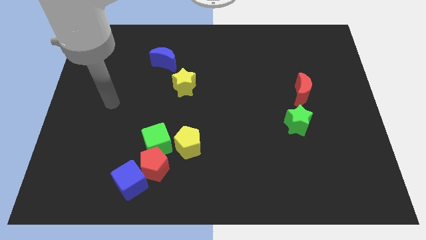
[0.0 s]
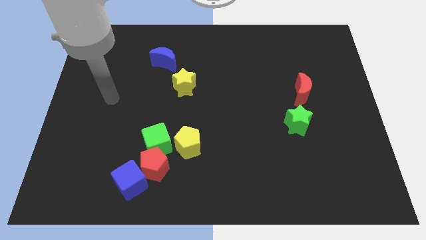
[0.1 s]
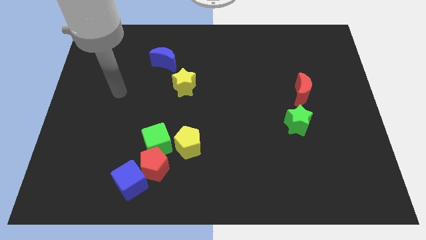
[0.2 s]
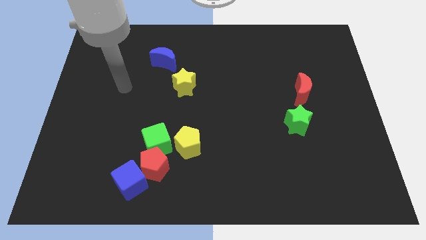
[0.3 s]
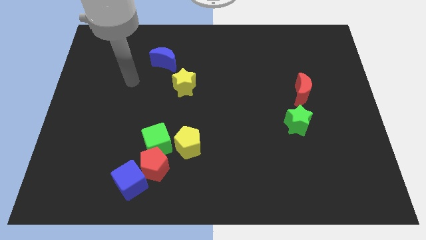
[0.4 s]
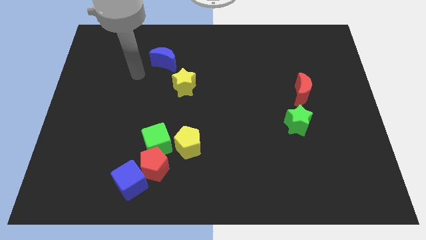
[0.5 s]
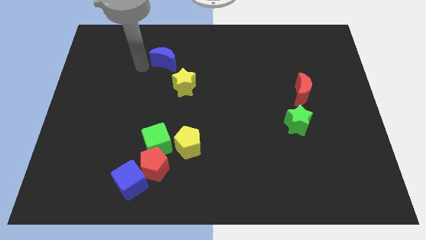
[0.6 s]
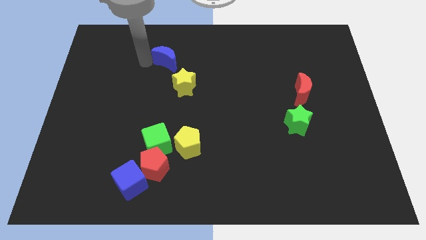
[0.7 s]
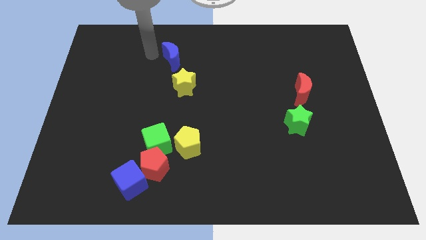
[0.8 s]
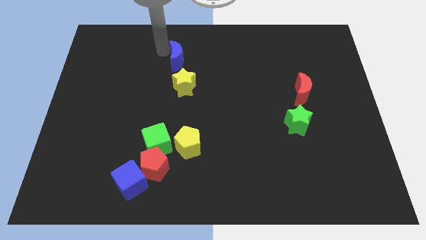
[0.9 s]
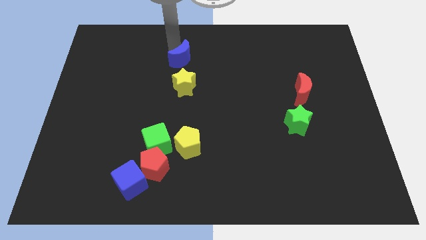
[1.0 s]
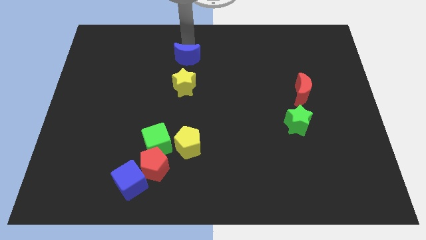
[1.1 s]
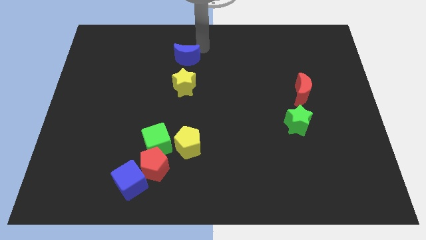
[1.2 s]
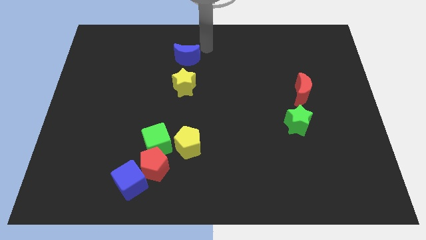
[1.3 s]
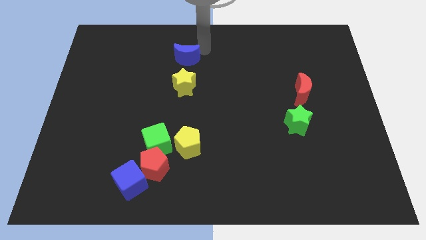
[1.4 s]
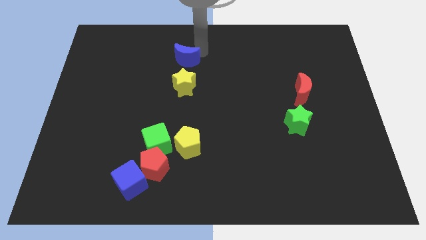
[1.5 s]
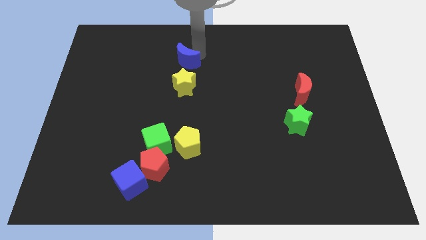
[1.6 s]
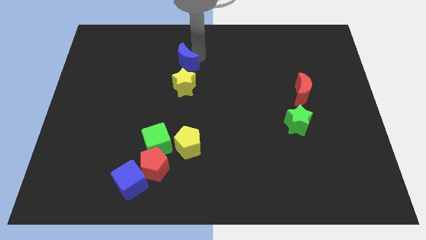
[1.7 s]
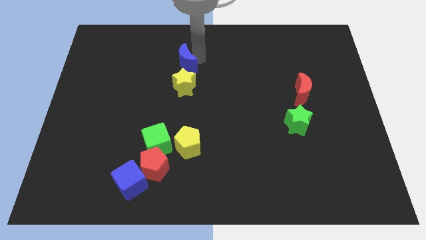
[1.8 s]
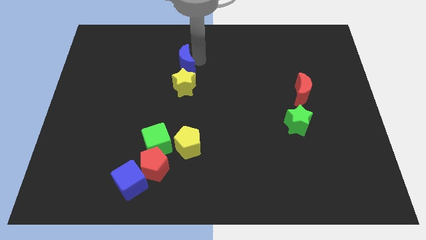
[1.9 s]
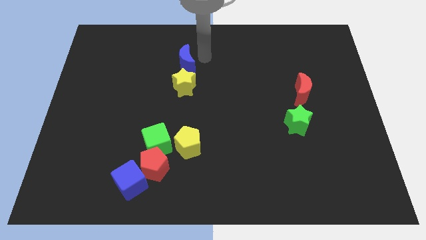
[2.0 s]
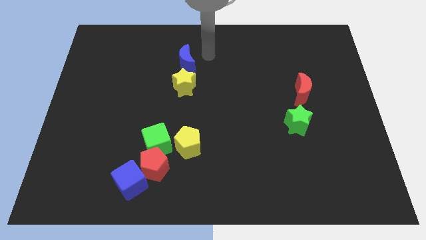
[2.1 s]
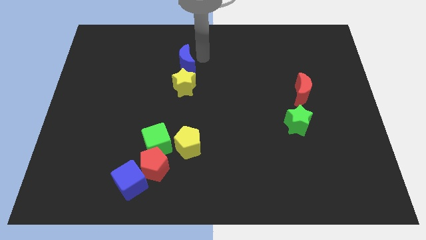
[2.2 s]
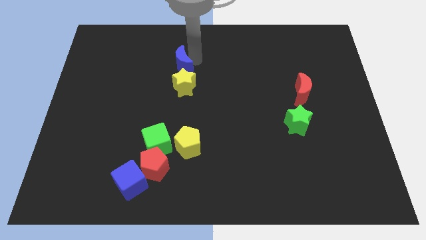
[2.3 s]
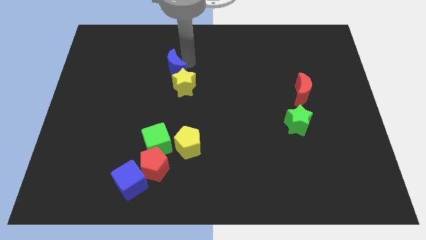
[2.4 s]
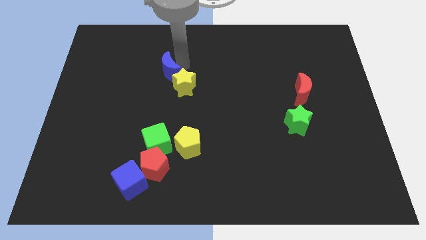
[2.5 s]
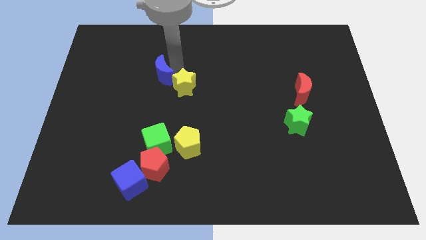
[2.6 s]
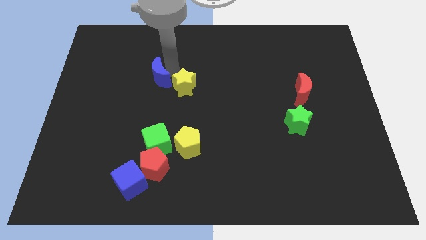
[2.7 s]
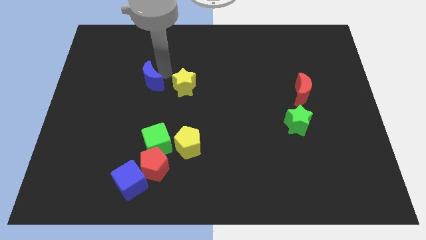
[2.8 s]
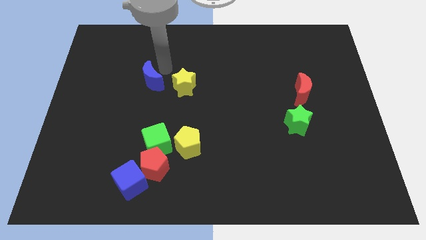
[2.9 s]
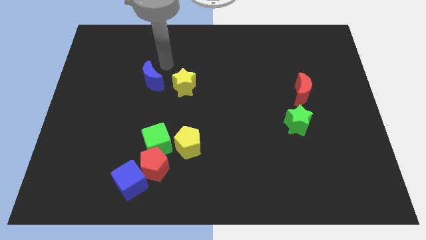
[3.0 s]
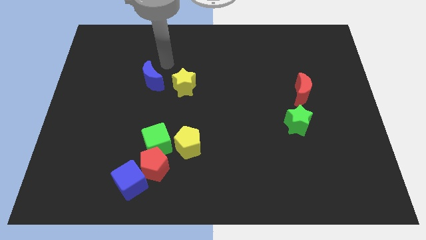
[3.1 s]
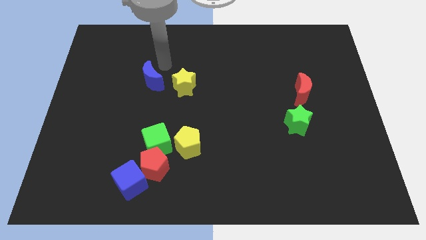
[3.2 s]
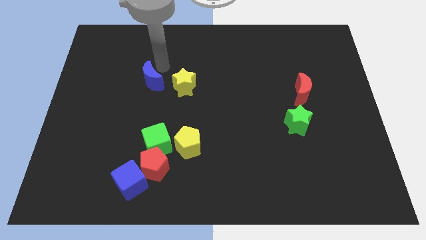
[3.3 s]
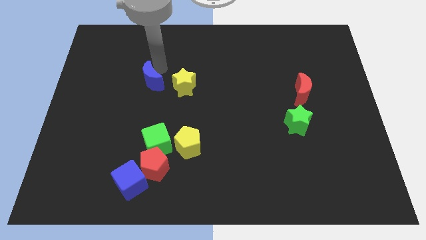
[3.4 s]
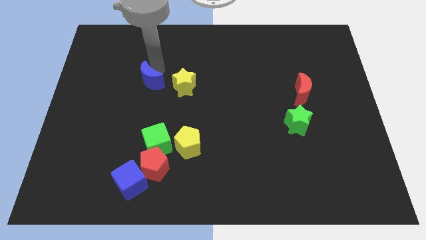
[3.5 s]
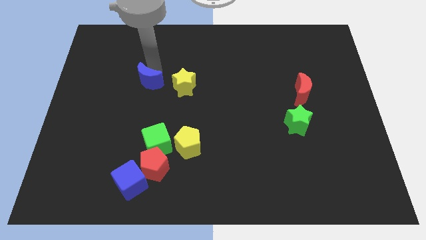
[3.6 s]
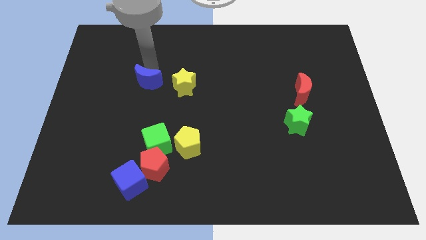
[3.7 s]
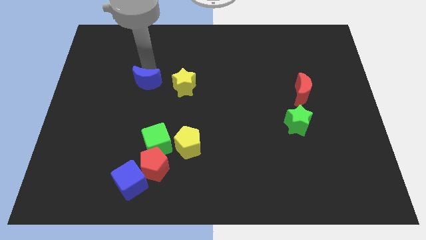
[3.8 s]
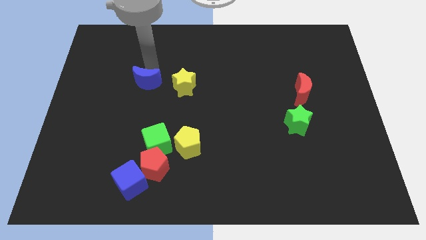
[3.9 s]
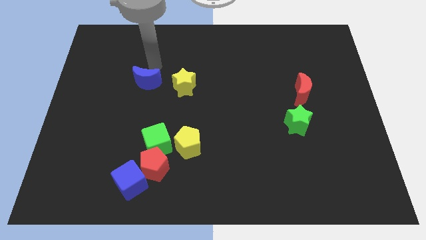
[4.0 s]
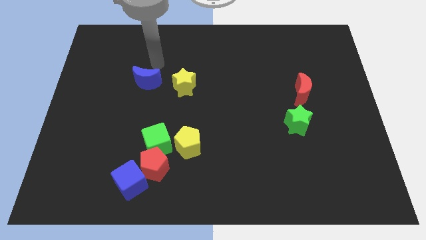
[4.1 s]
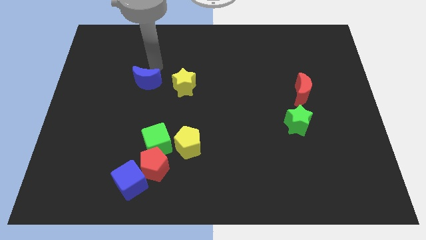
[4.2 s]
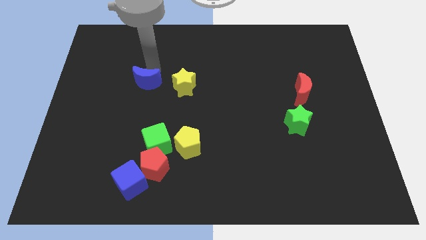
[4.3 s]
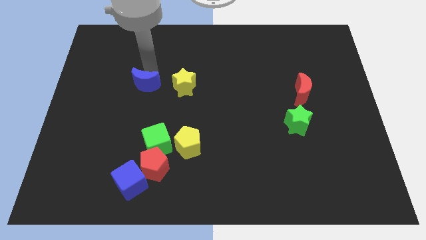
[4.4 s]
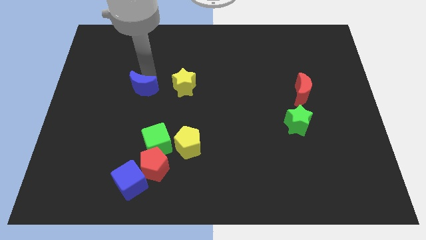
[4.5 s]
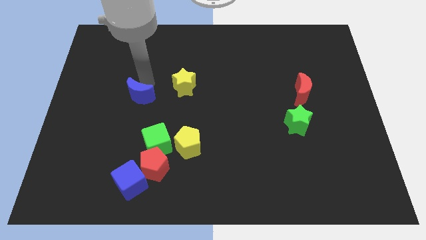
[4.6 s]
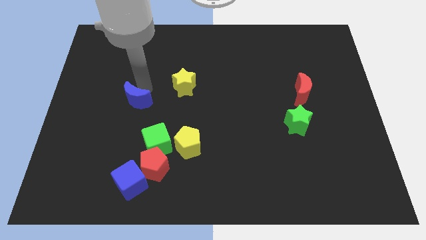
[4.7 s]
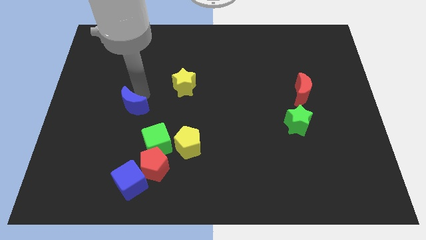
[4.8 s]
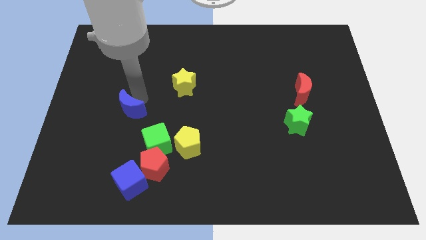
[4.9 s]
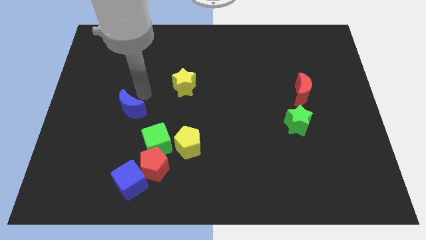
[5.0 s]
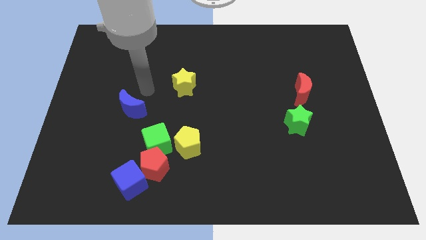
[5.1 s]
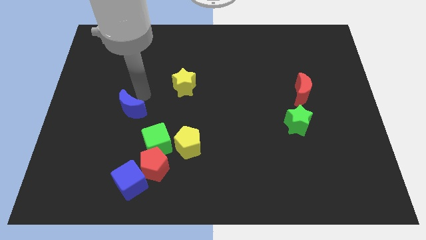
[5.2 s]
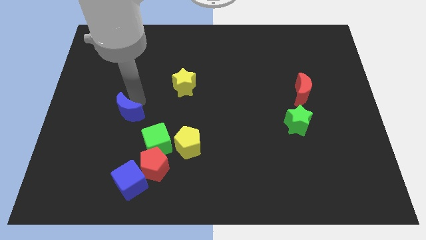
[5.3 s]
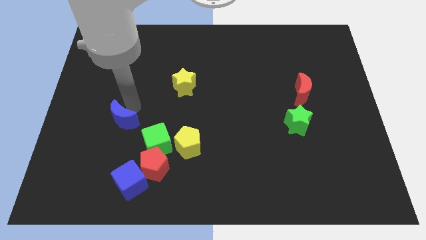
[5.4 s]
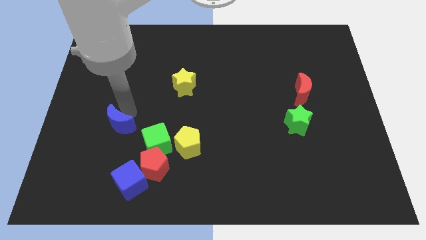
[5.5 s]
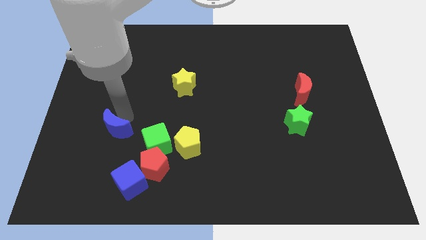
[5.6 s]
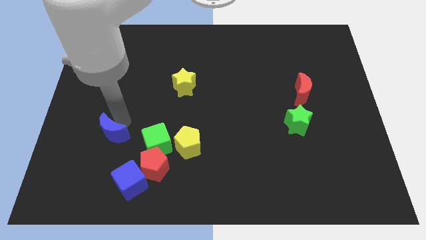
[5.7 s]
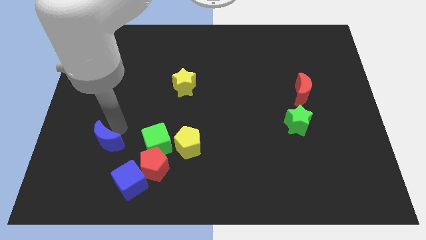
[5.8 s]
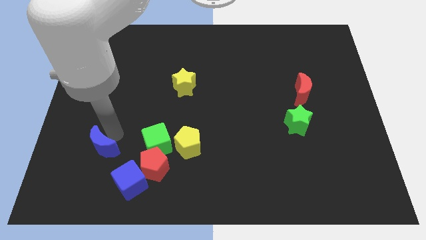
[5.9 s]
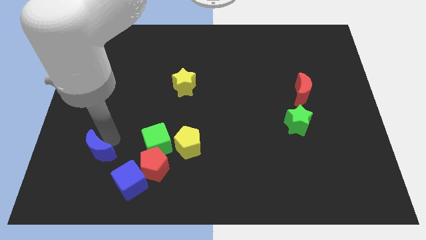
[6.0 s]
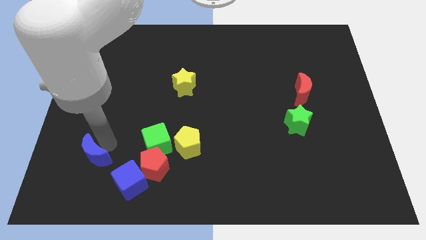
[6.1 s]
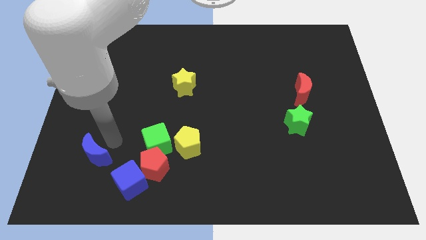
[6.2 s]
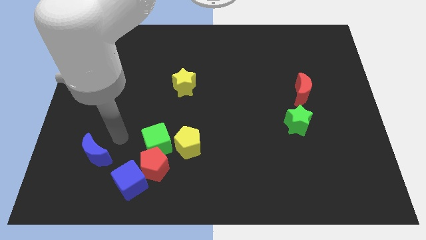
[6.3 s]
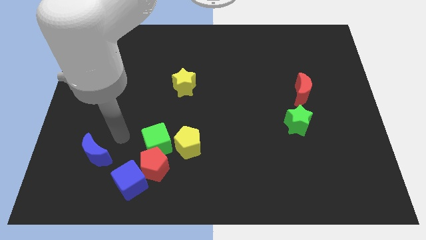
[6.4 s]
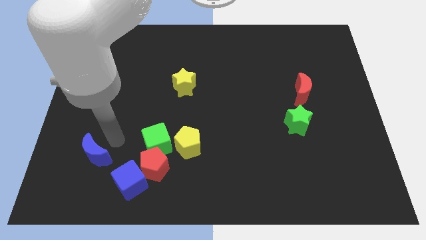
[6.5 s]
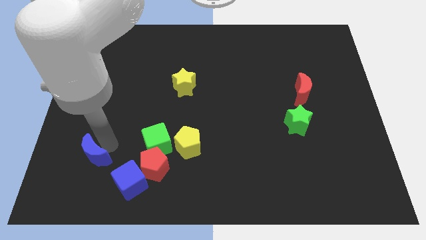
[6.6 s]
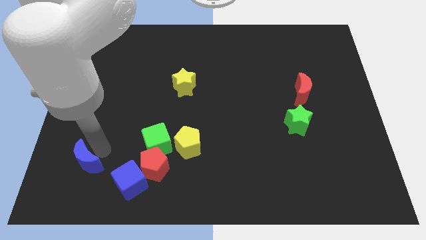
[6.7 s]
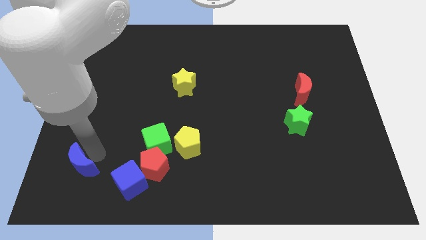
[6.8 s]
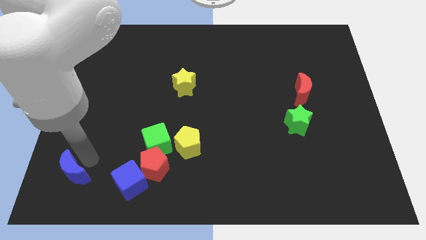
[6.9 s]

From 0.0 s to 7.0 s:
move the blue moon to the bottom left corner
